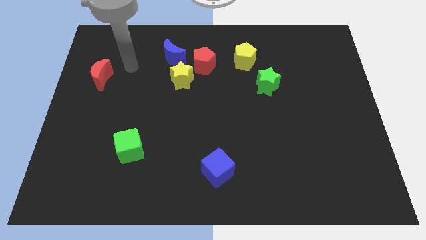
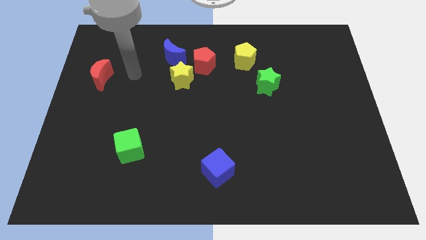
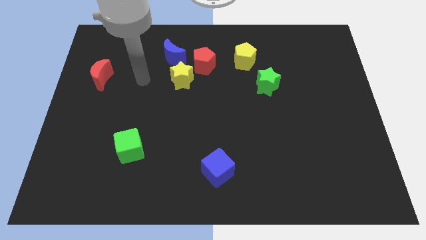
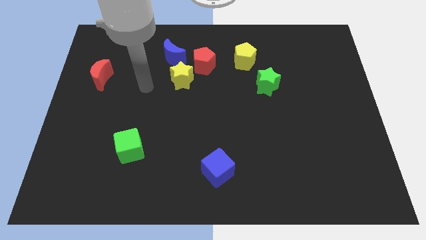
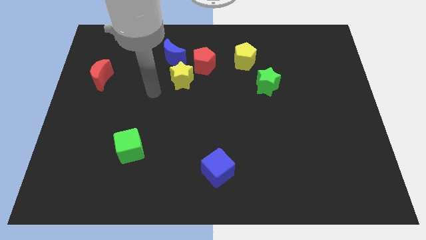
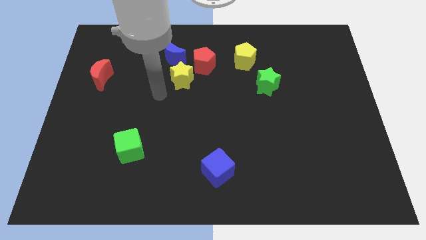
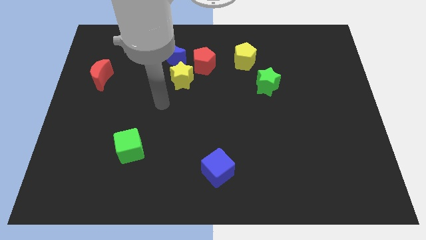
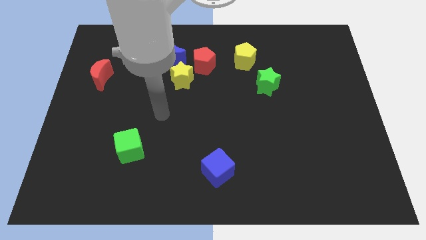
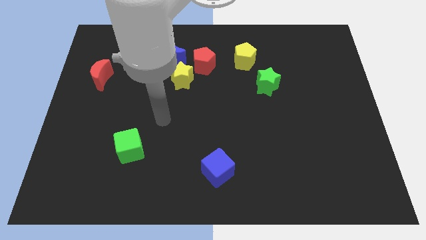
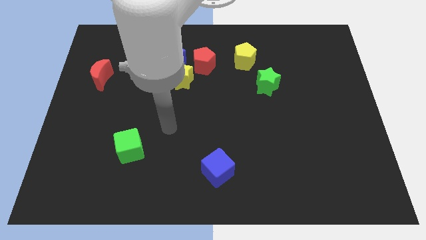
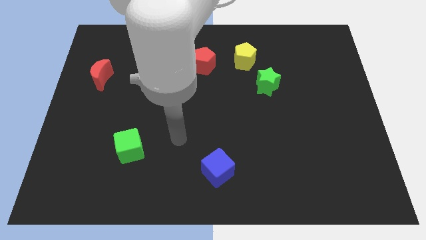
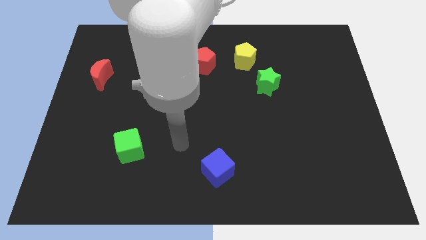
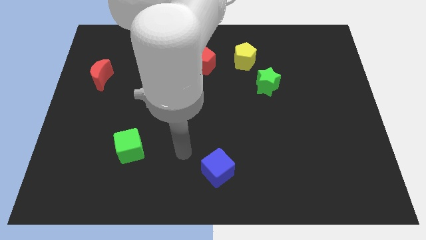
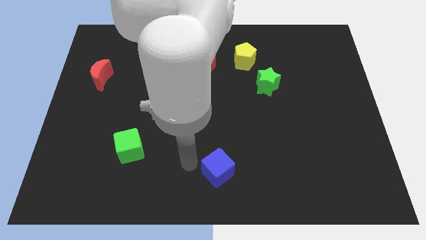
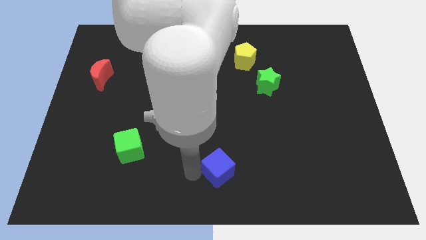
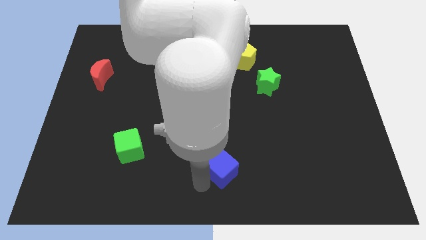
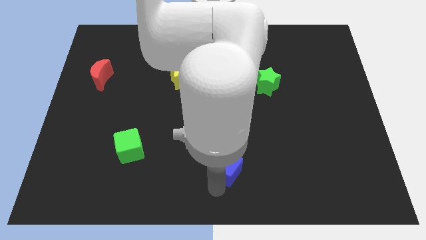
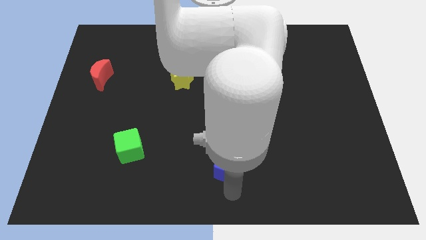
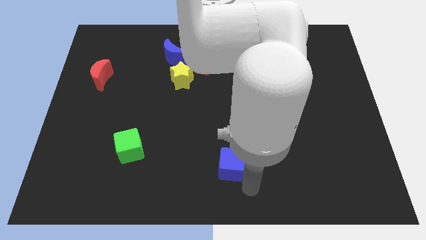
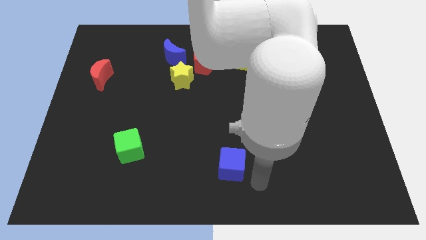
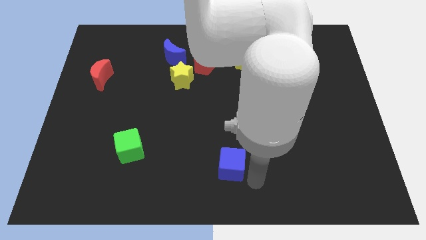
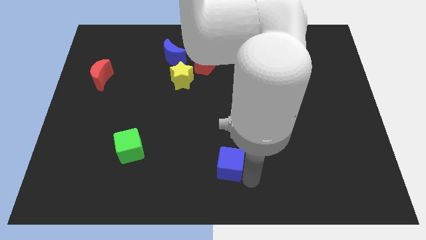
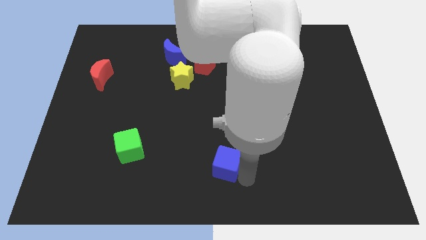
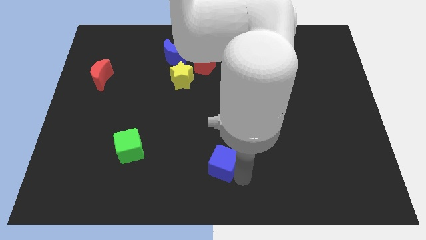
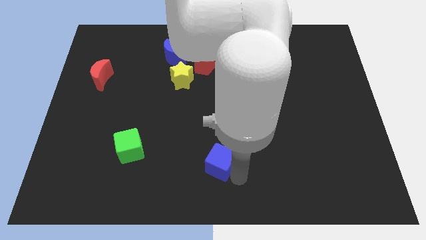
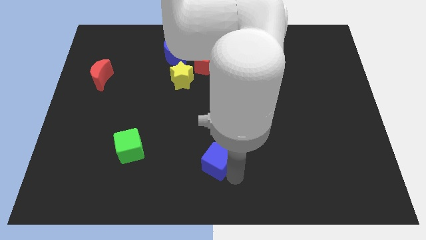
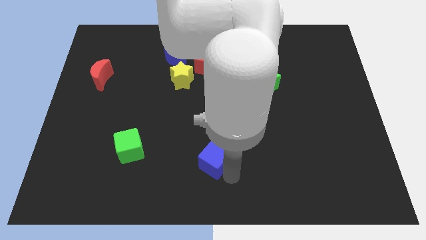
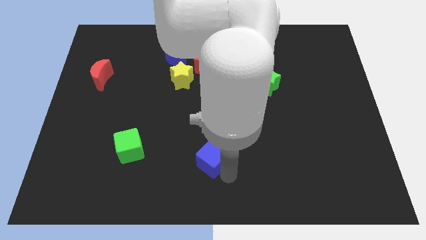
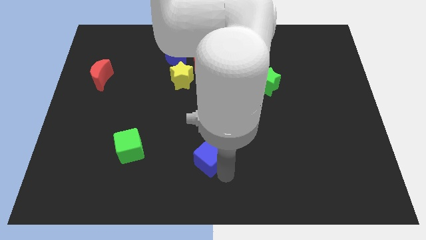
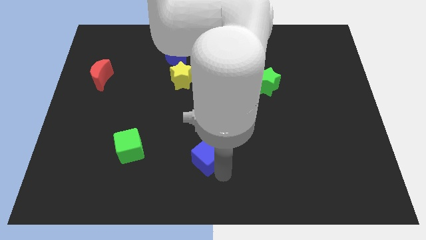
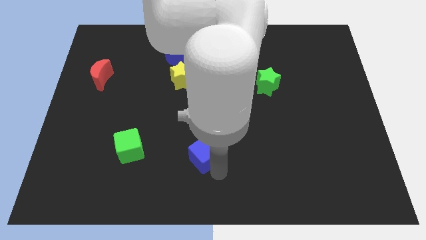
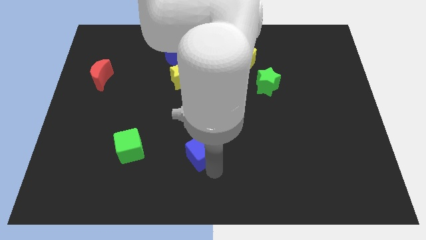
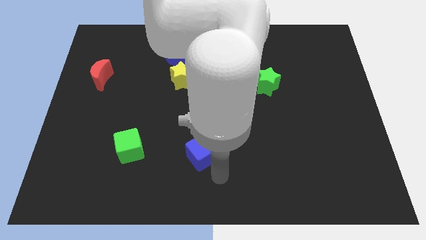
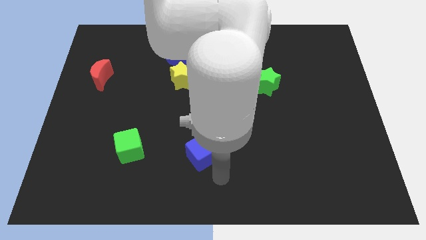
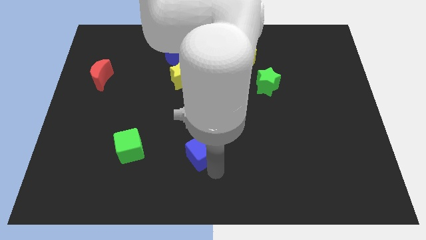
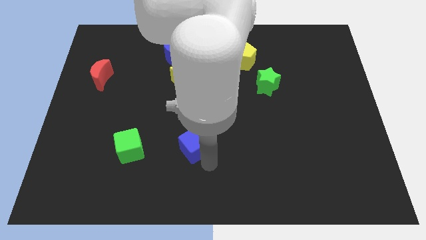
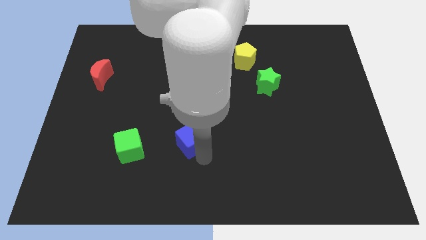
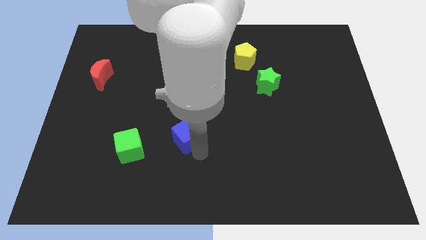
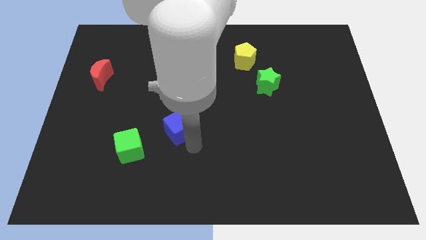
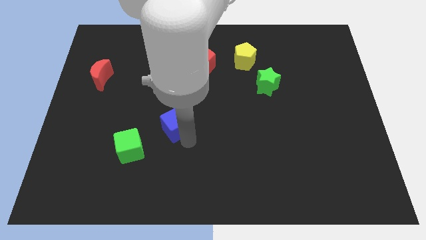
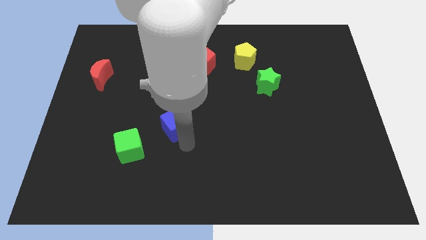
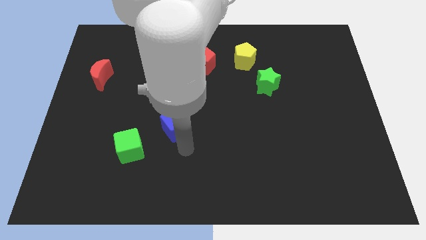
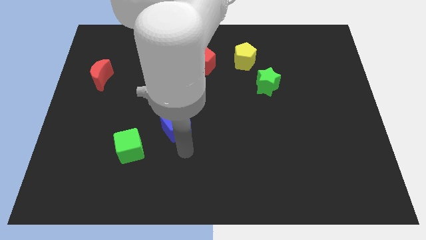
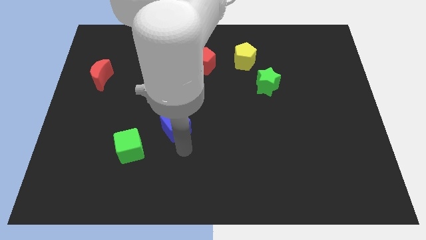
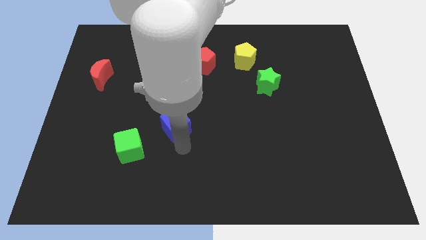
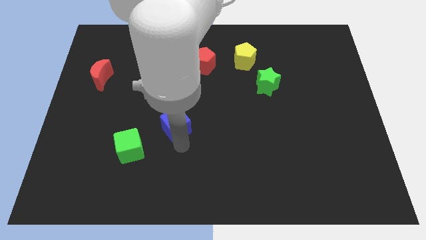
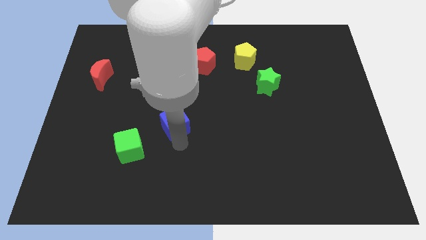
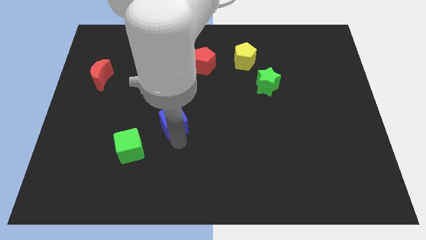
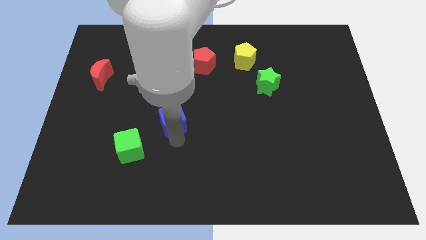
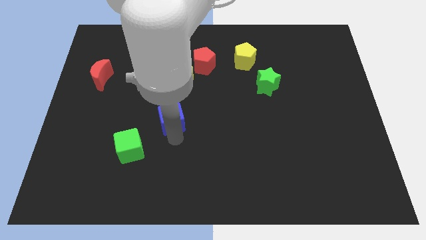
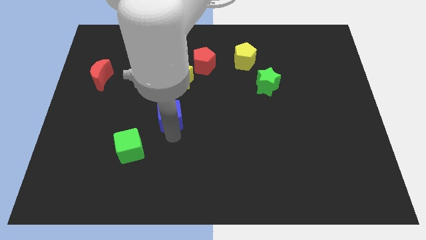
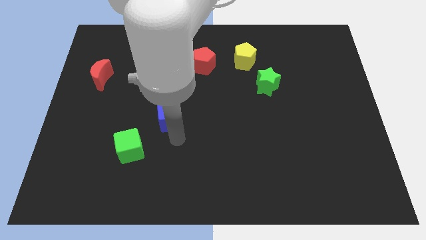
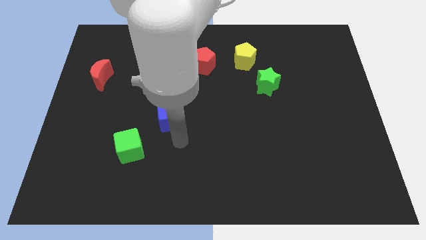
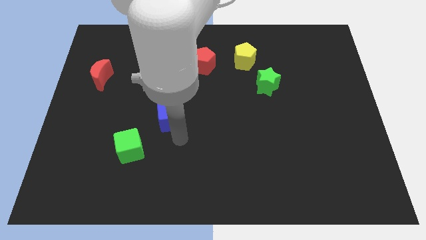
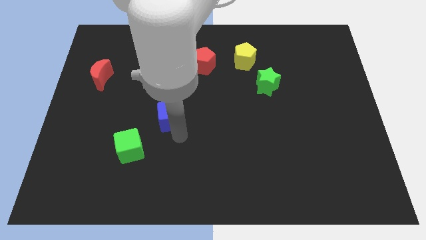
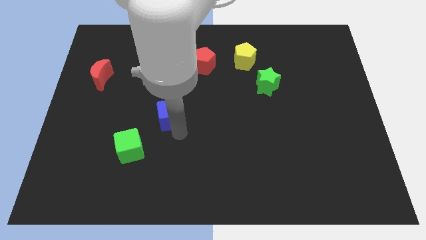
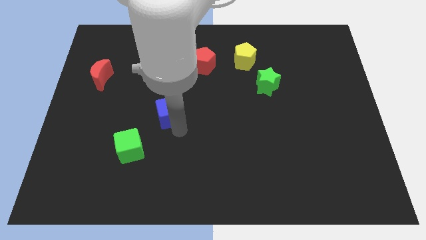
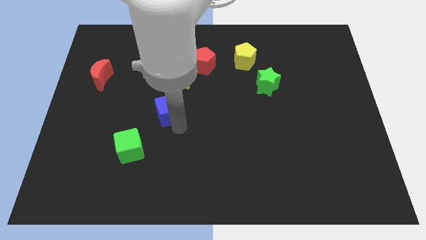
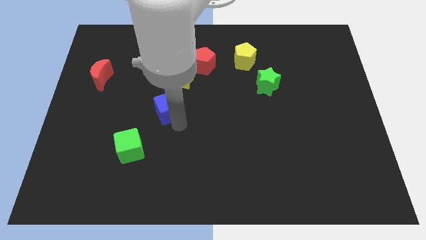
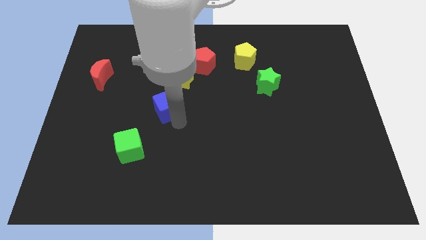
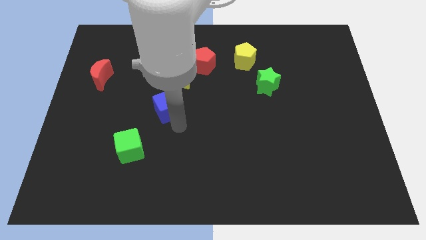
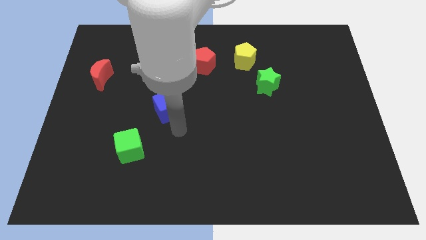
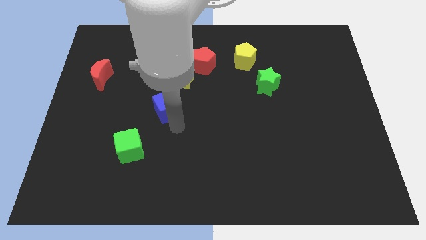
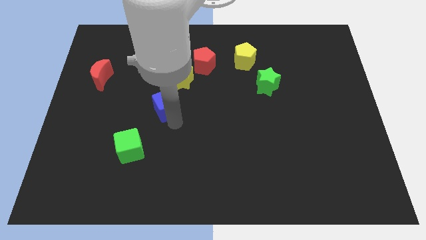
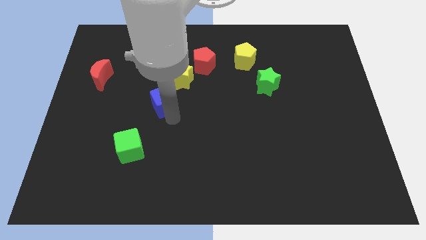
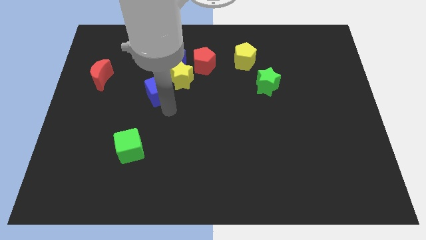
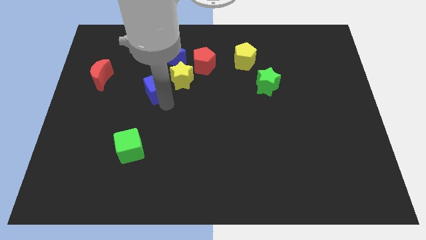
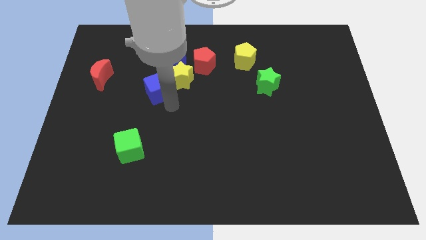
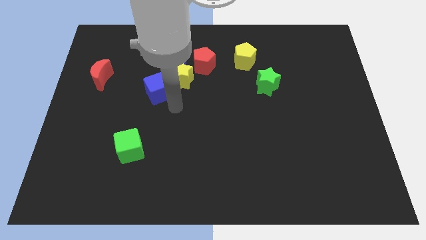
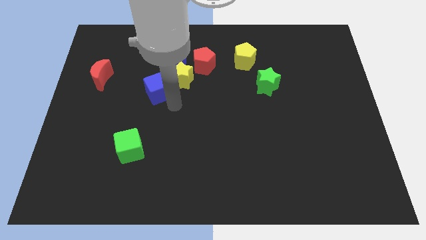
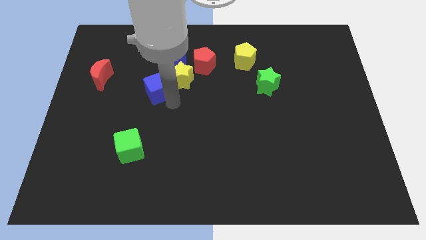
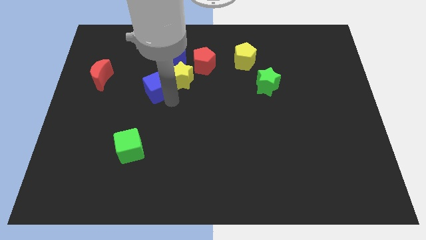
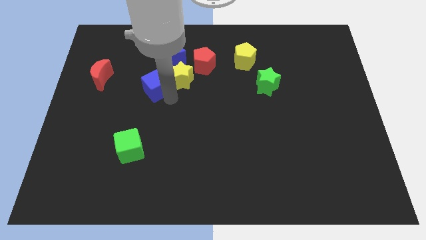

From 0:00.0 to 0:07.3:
push the blue cube to the right side of the red moon
